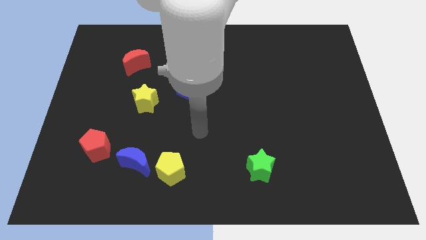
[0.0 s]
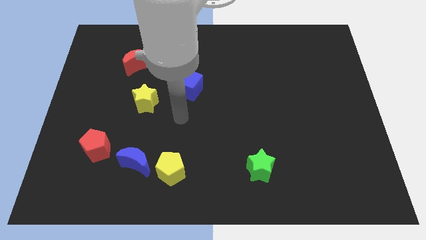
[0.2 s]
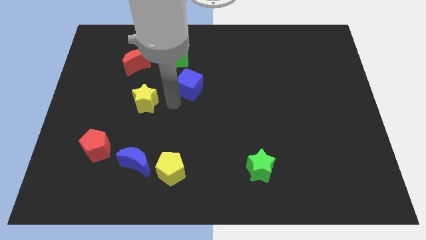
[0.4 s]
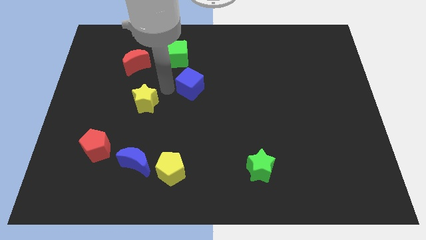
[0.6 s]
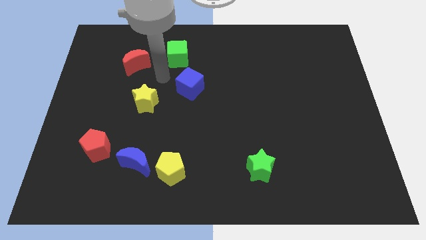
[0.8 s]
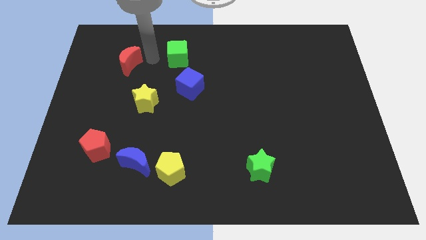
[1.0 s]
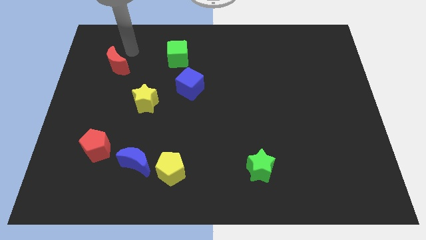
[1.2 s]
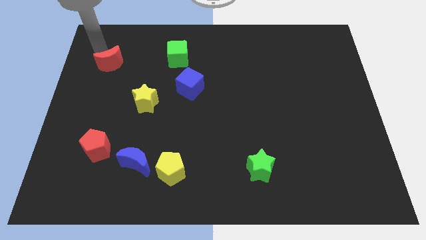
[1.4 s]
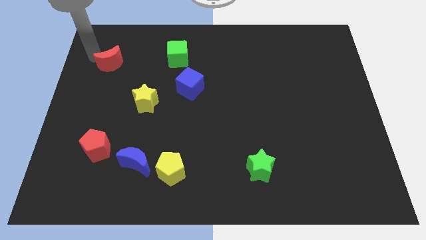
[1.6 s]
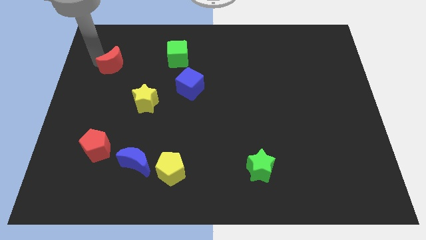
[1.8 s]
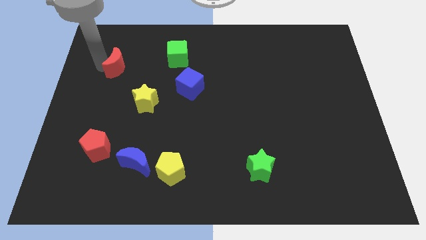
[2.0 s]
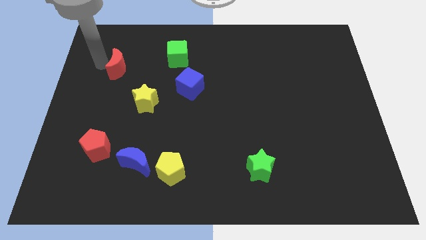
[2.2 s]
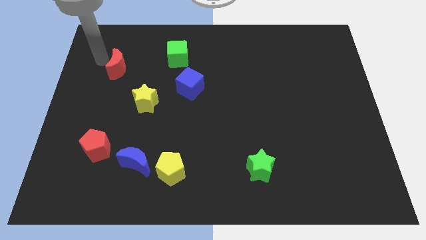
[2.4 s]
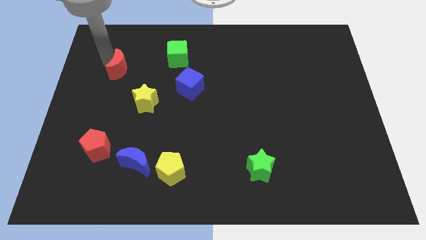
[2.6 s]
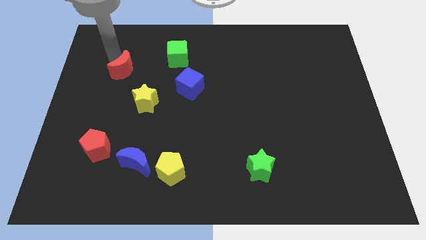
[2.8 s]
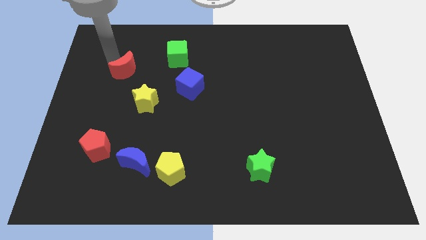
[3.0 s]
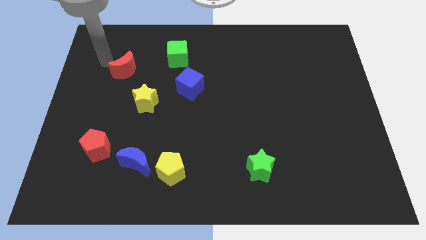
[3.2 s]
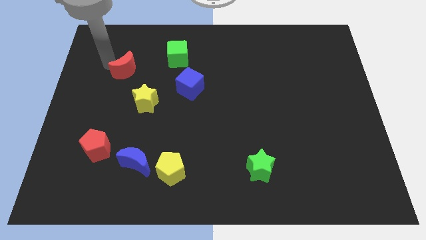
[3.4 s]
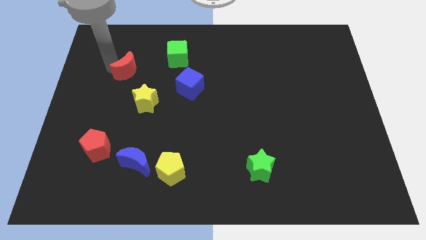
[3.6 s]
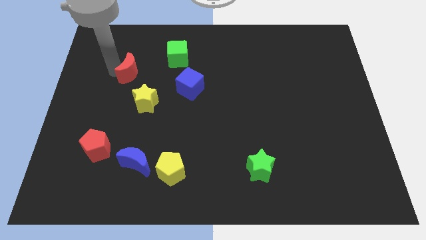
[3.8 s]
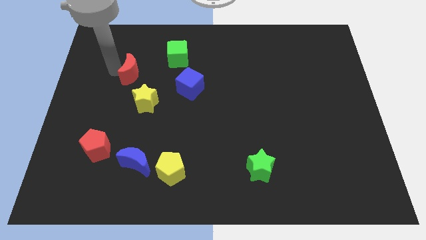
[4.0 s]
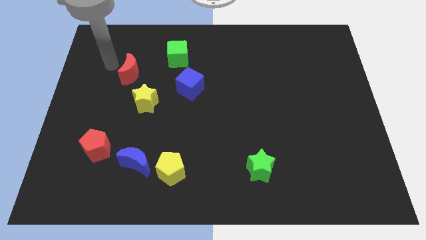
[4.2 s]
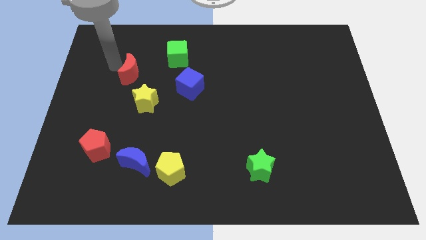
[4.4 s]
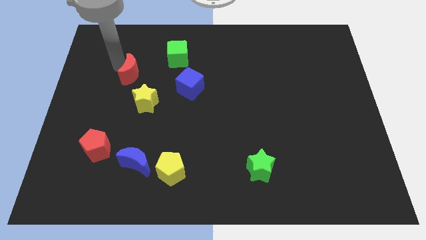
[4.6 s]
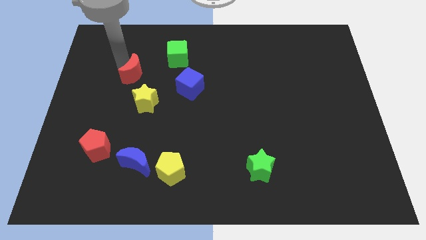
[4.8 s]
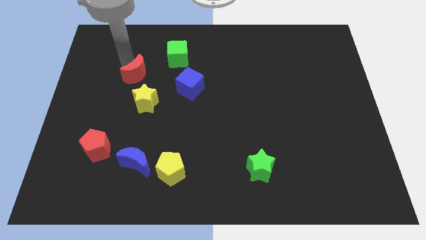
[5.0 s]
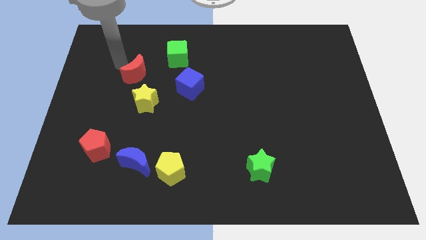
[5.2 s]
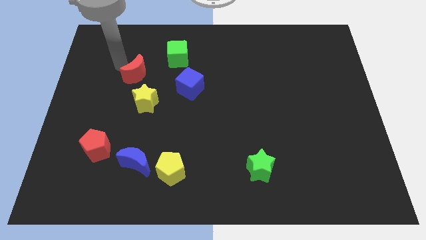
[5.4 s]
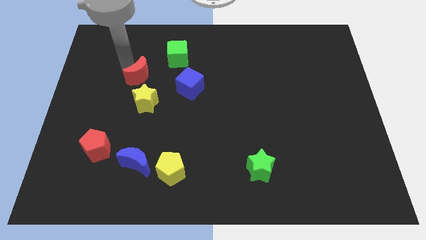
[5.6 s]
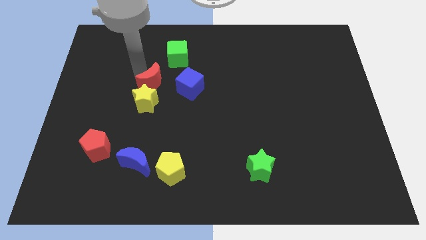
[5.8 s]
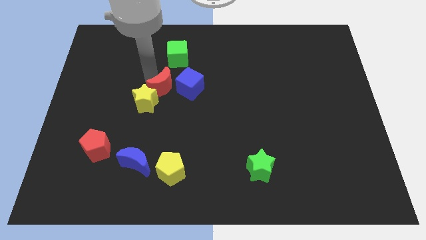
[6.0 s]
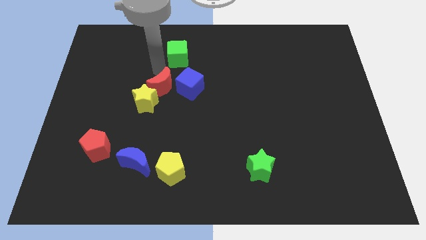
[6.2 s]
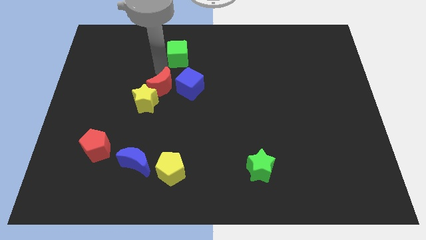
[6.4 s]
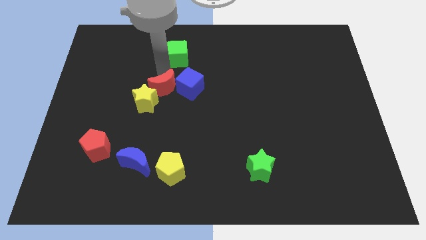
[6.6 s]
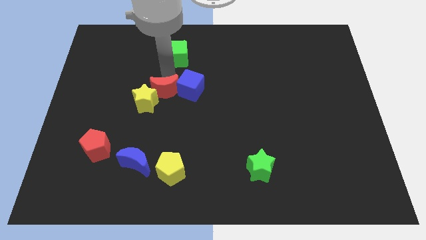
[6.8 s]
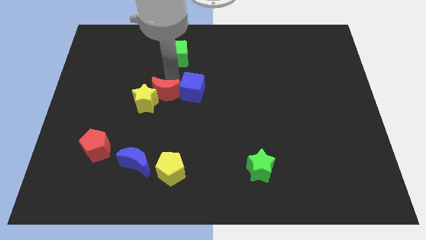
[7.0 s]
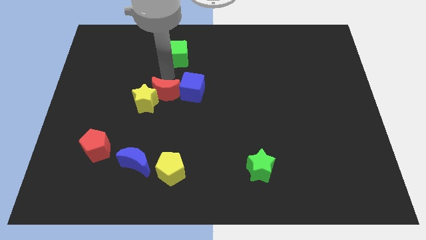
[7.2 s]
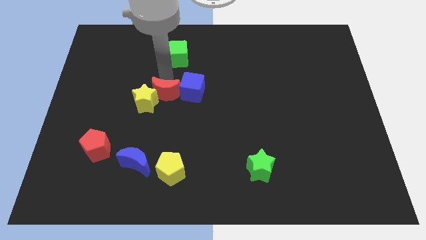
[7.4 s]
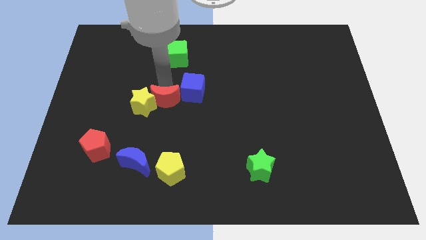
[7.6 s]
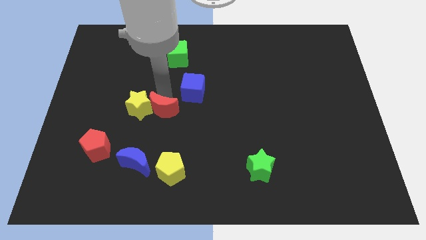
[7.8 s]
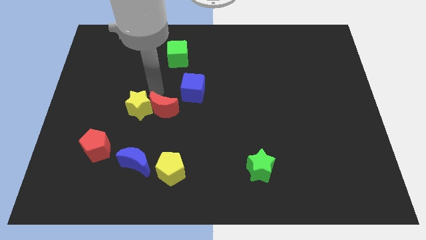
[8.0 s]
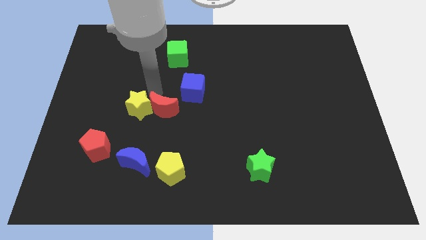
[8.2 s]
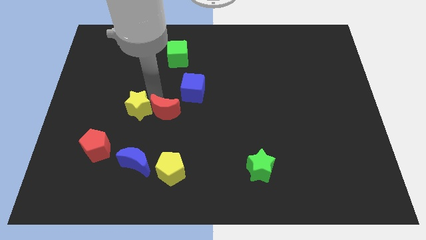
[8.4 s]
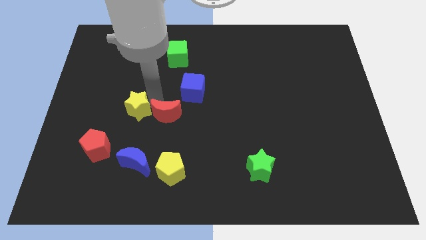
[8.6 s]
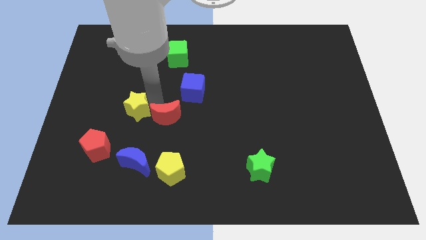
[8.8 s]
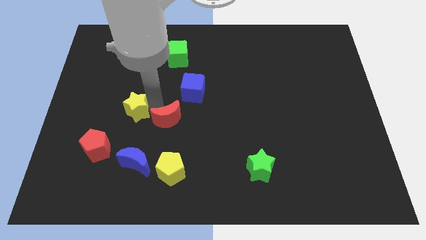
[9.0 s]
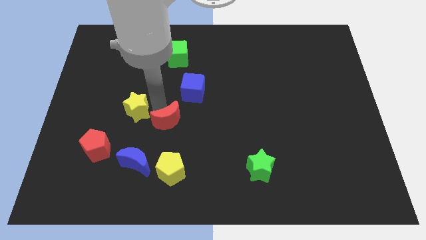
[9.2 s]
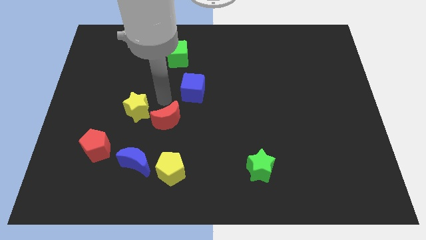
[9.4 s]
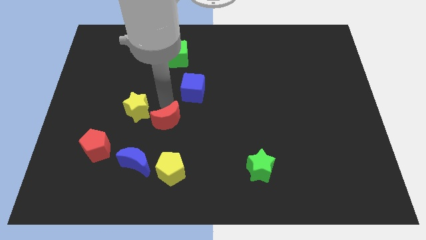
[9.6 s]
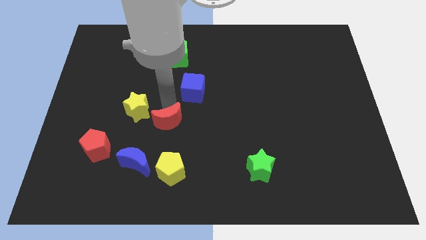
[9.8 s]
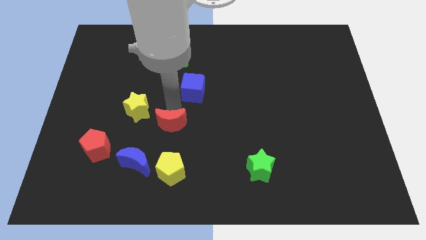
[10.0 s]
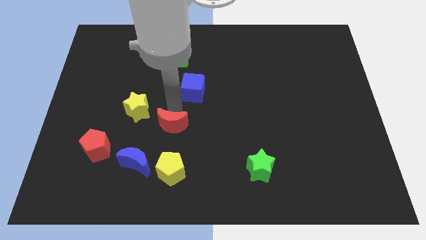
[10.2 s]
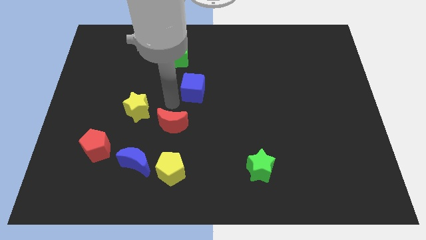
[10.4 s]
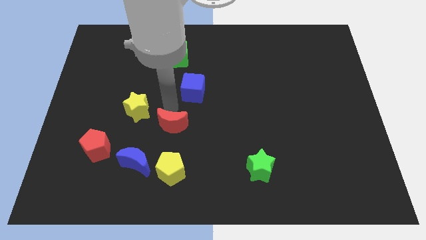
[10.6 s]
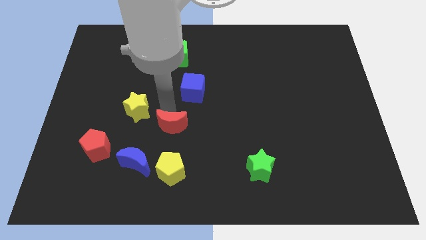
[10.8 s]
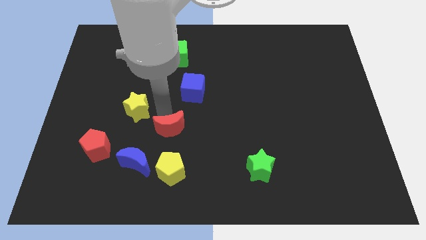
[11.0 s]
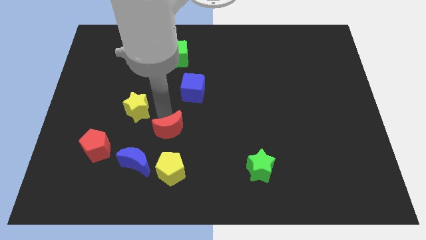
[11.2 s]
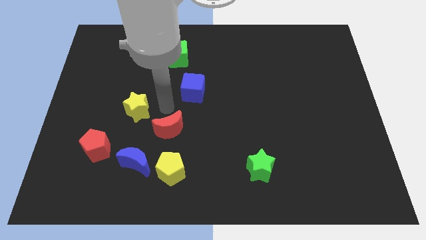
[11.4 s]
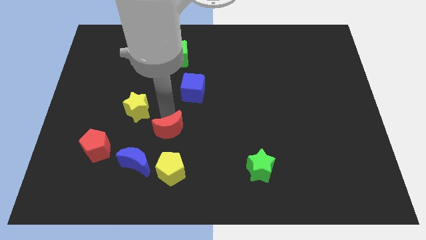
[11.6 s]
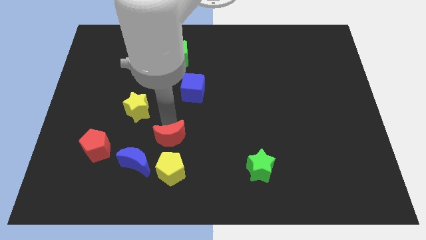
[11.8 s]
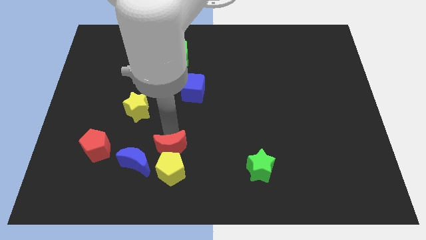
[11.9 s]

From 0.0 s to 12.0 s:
put the red moon towards the yellow pentagon

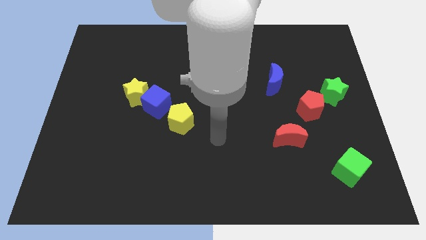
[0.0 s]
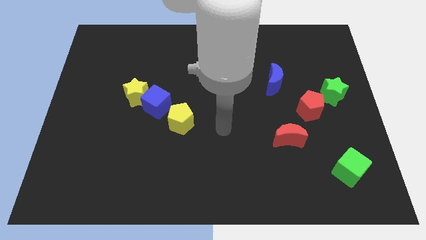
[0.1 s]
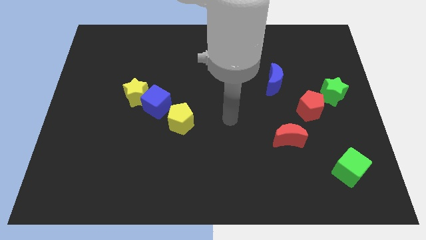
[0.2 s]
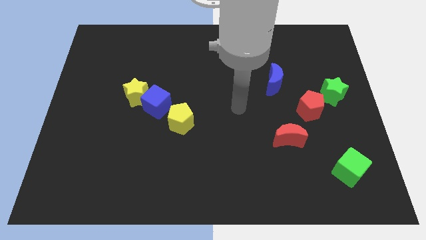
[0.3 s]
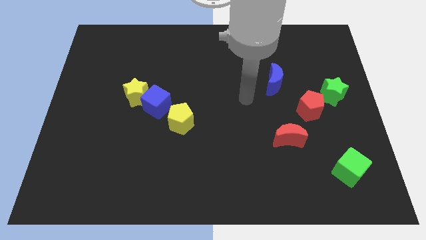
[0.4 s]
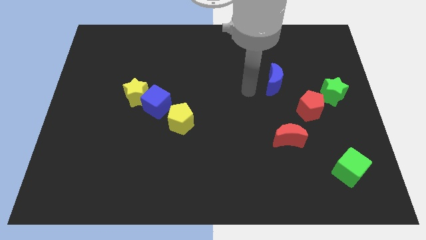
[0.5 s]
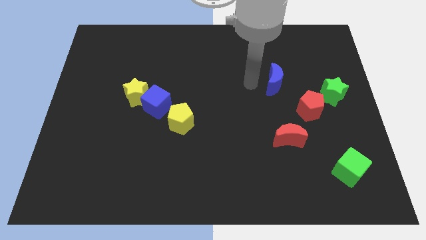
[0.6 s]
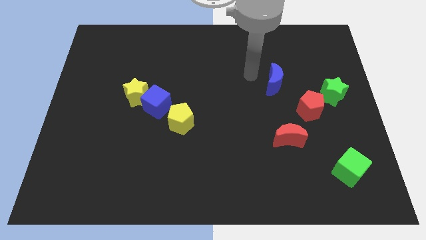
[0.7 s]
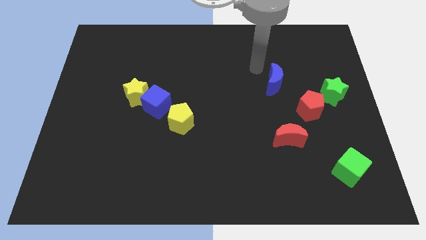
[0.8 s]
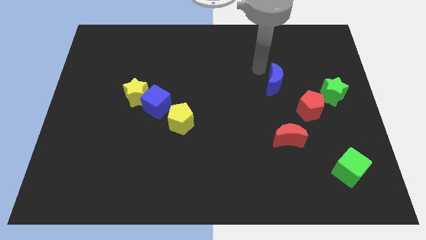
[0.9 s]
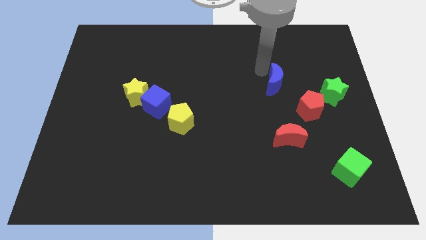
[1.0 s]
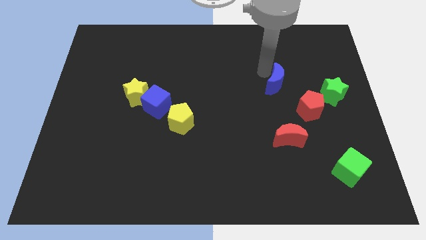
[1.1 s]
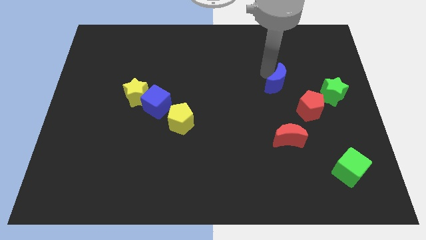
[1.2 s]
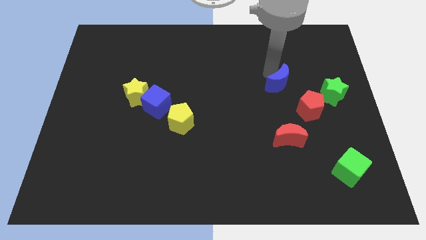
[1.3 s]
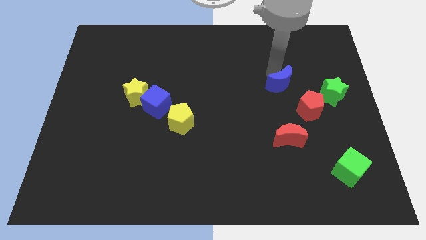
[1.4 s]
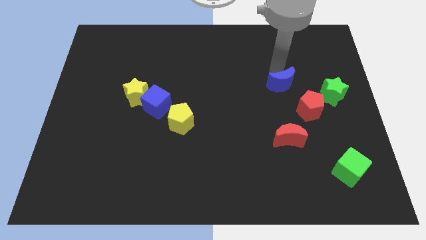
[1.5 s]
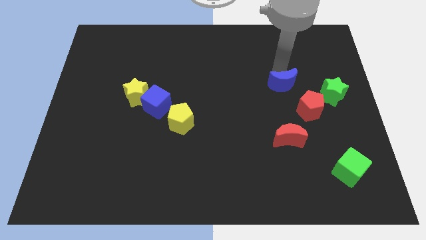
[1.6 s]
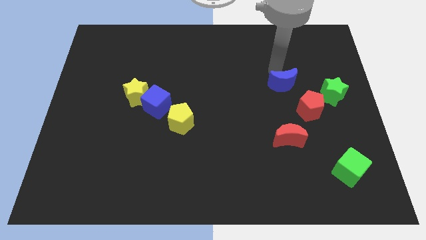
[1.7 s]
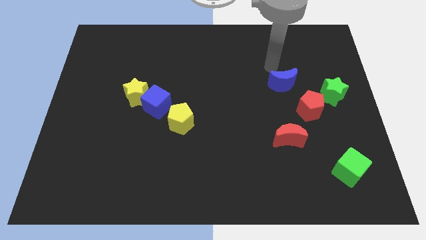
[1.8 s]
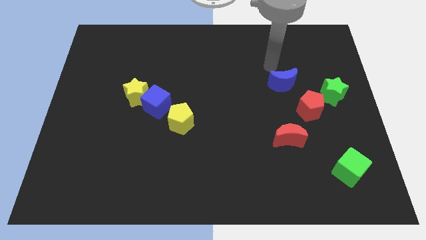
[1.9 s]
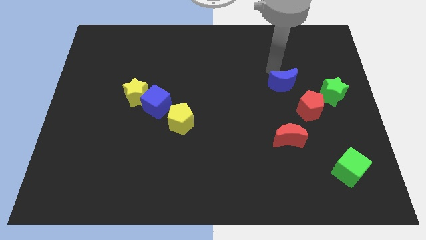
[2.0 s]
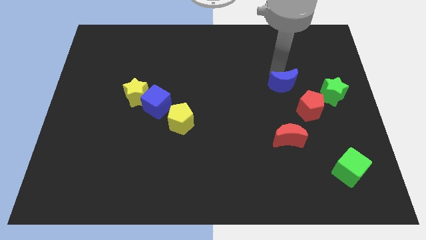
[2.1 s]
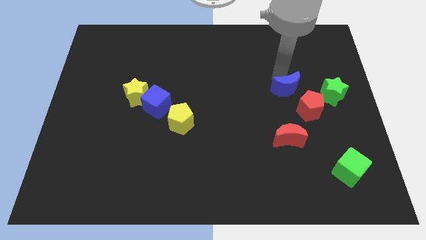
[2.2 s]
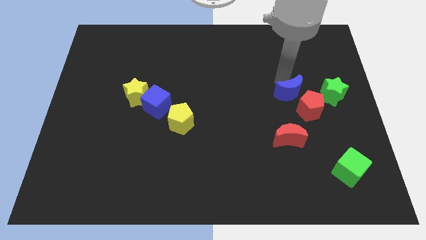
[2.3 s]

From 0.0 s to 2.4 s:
push the blue moon next to the red pentagon
